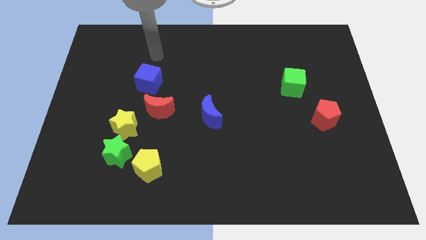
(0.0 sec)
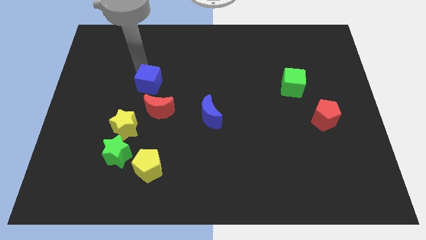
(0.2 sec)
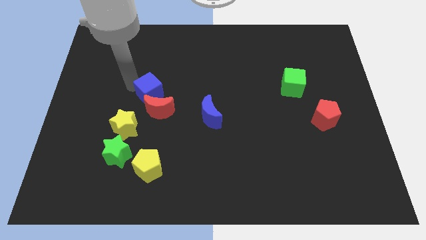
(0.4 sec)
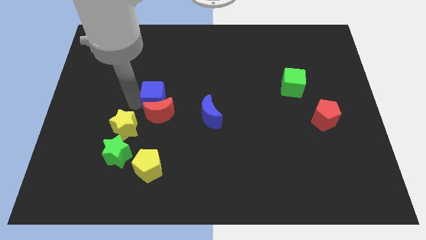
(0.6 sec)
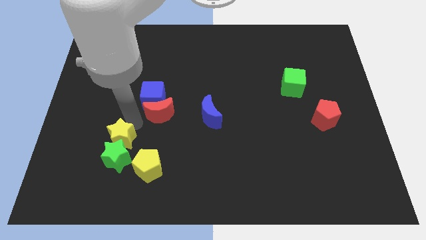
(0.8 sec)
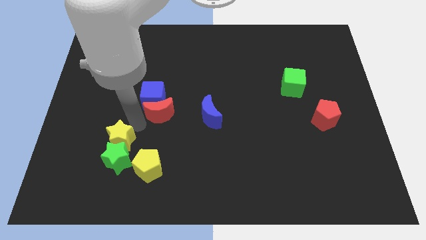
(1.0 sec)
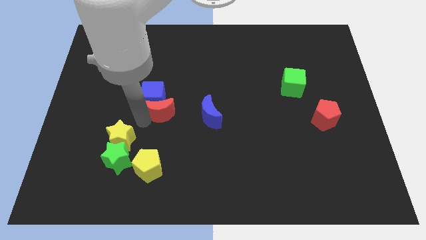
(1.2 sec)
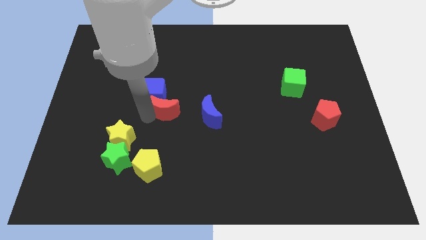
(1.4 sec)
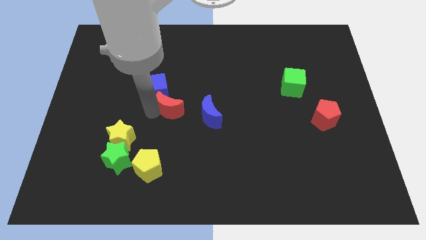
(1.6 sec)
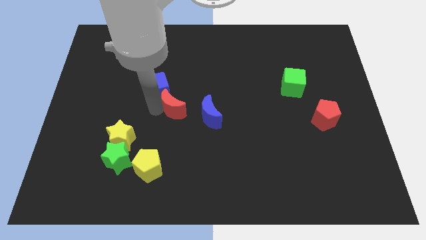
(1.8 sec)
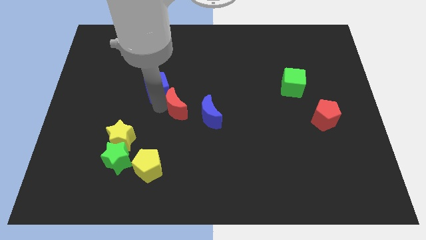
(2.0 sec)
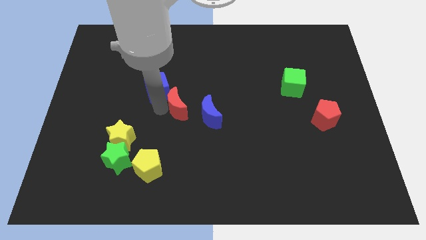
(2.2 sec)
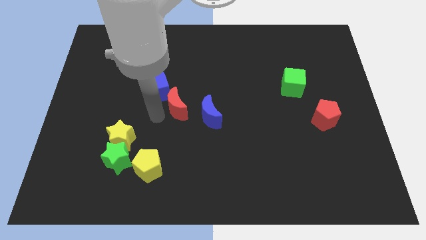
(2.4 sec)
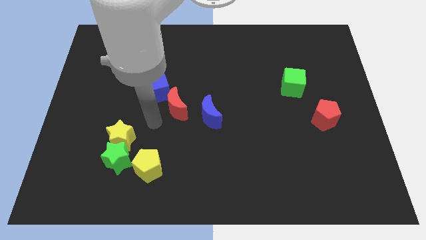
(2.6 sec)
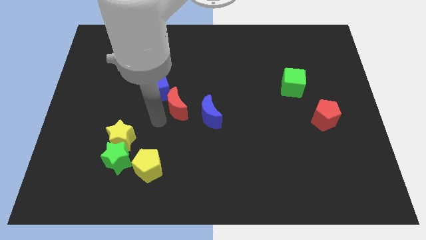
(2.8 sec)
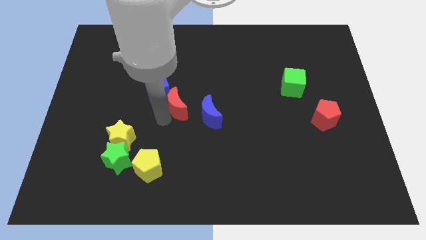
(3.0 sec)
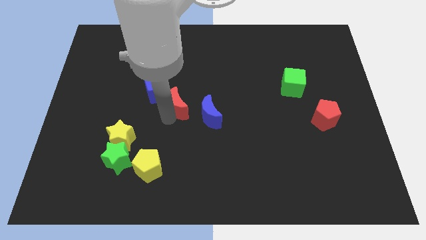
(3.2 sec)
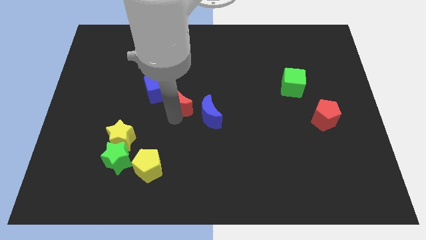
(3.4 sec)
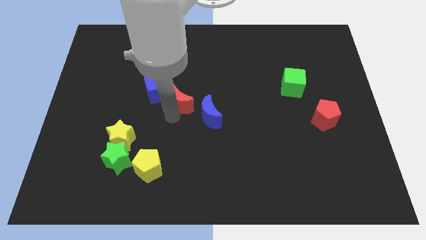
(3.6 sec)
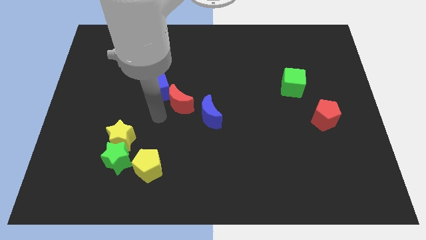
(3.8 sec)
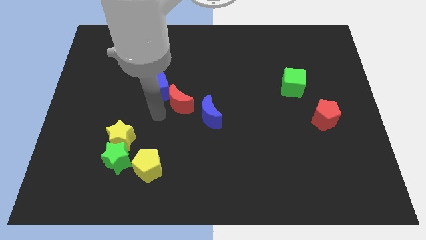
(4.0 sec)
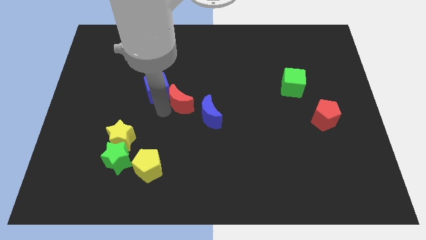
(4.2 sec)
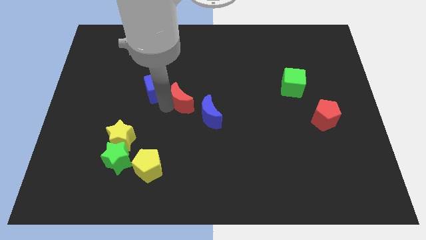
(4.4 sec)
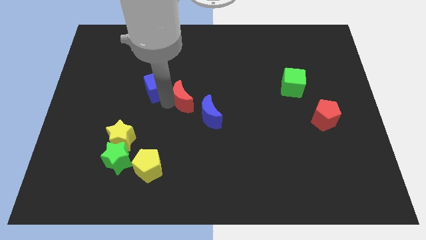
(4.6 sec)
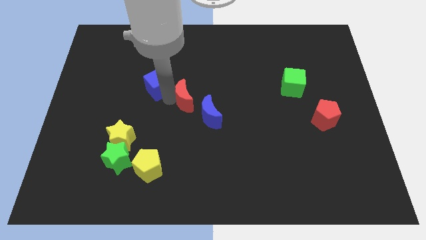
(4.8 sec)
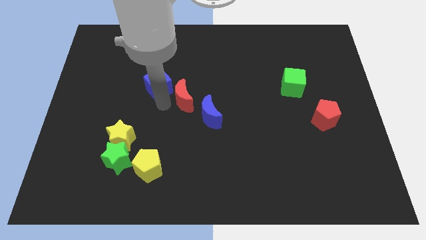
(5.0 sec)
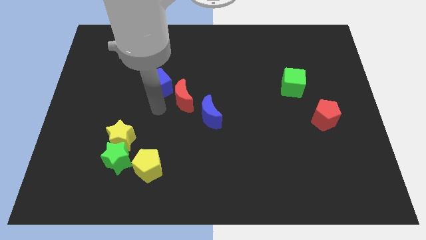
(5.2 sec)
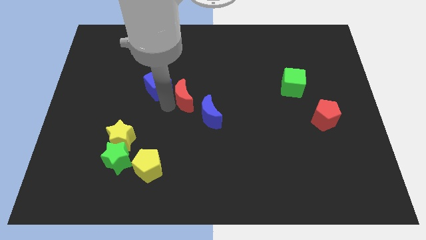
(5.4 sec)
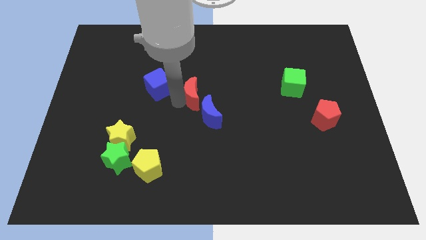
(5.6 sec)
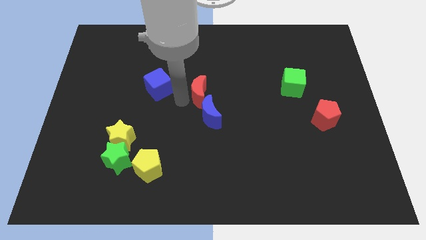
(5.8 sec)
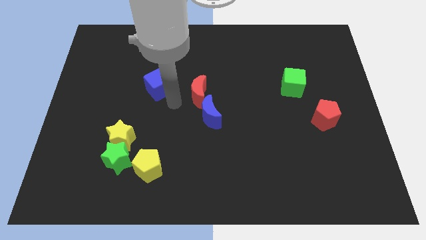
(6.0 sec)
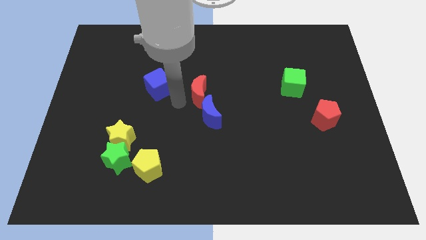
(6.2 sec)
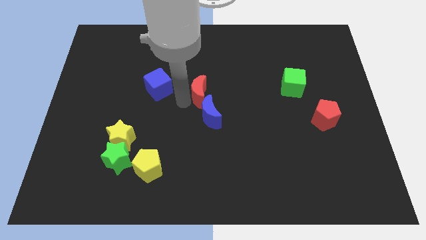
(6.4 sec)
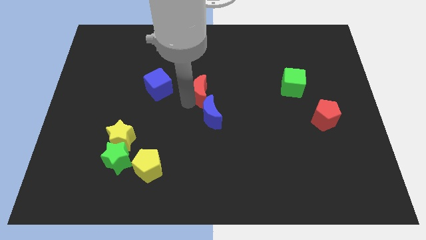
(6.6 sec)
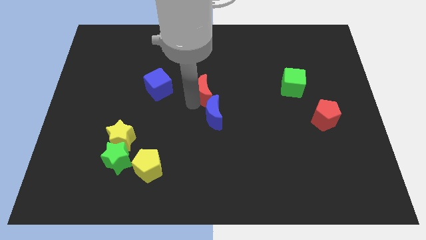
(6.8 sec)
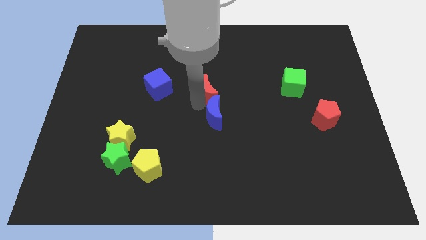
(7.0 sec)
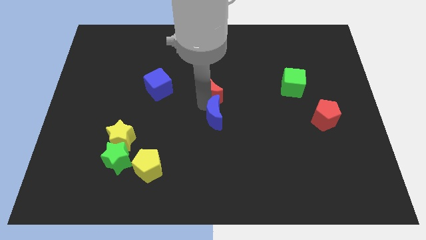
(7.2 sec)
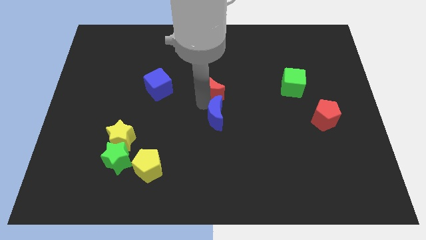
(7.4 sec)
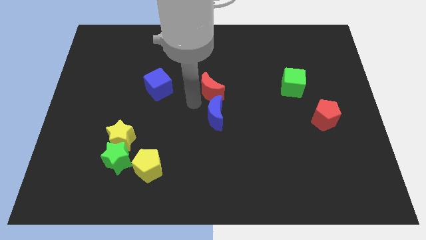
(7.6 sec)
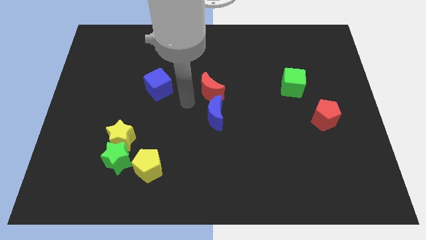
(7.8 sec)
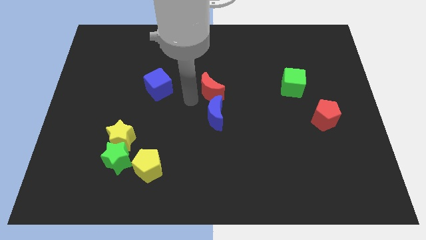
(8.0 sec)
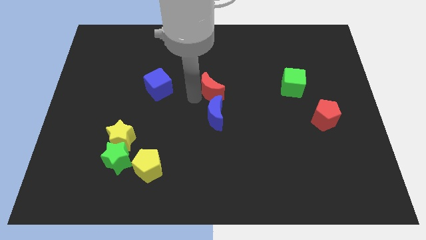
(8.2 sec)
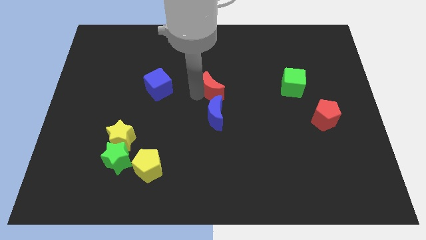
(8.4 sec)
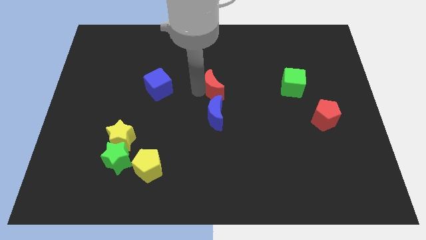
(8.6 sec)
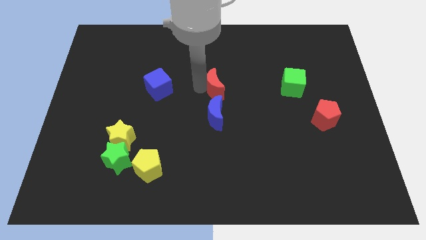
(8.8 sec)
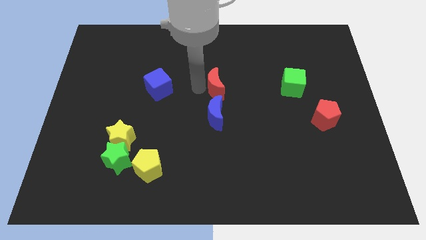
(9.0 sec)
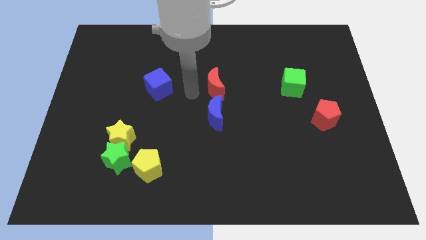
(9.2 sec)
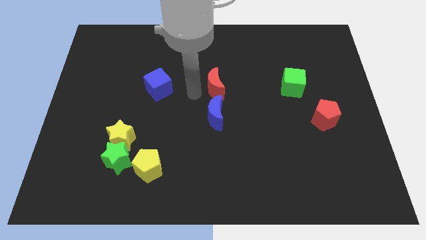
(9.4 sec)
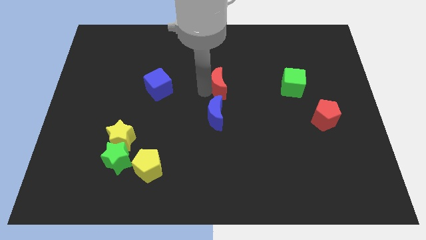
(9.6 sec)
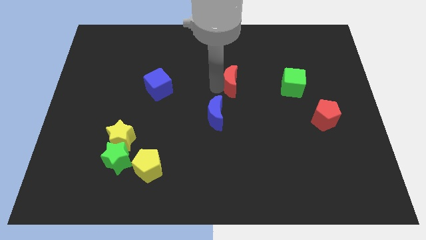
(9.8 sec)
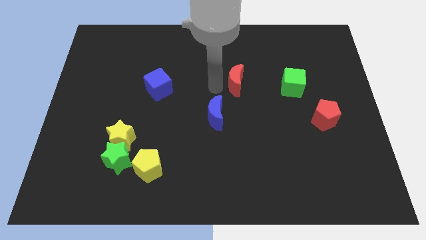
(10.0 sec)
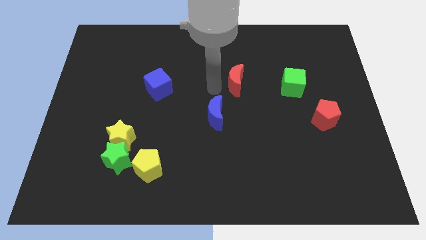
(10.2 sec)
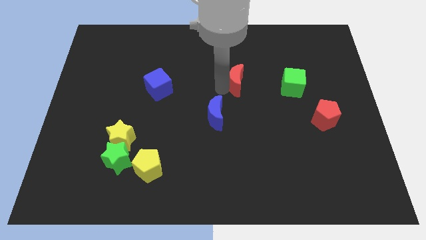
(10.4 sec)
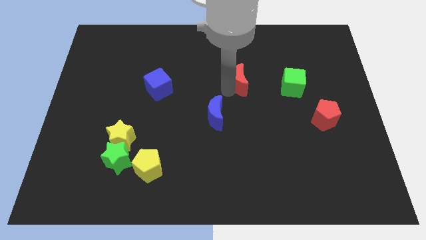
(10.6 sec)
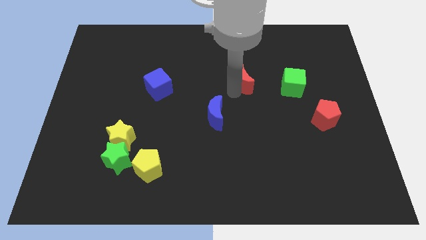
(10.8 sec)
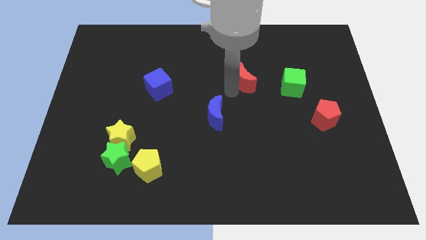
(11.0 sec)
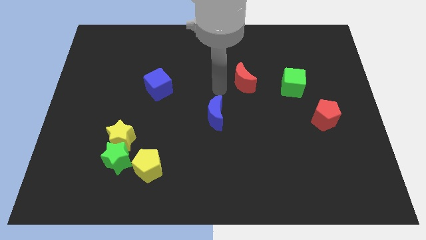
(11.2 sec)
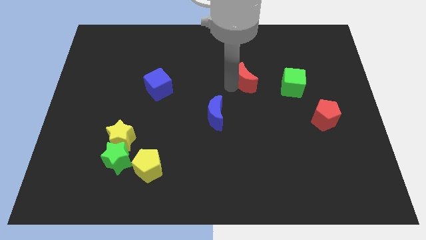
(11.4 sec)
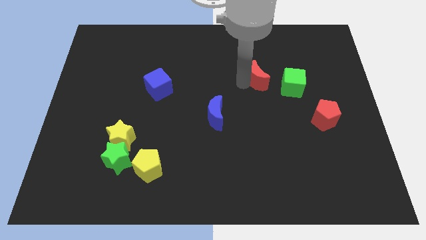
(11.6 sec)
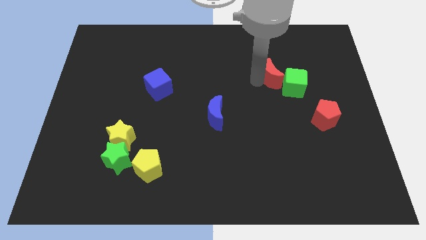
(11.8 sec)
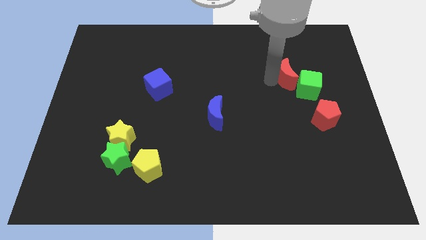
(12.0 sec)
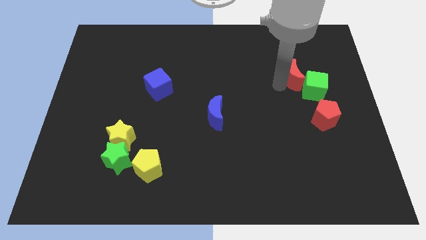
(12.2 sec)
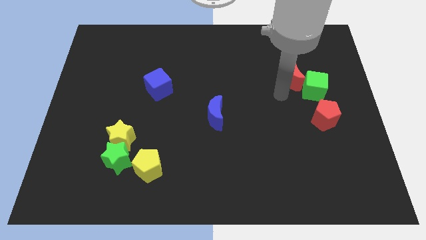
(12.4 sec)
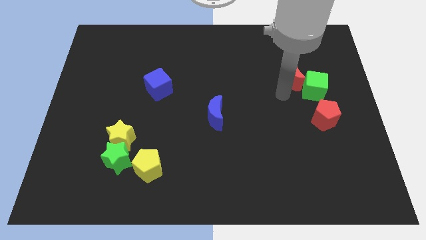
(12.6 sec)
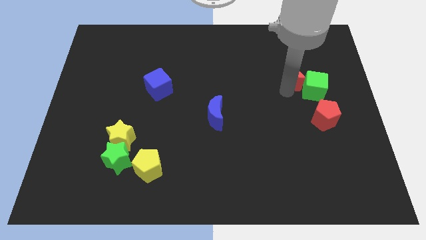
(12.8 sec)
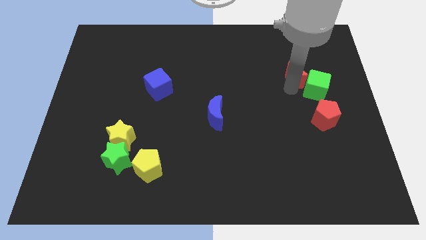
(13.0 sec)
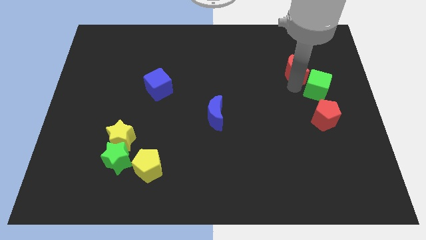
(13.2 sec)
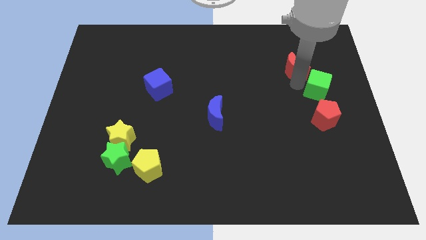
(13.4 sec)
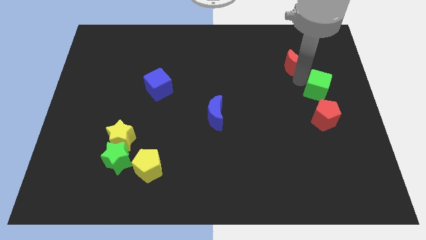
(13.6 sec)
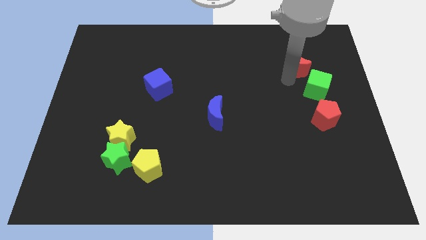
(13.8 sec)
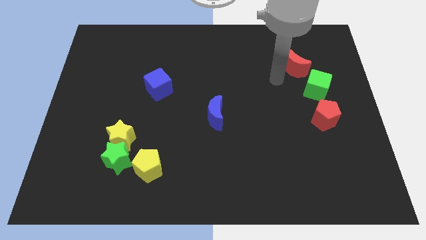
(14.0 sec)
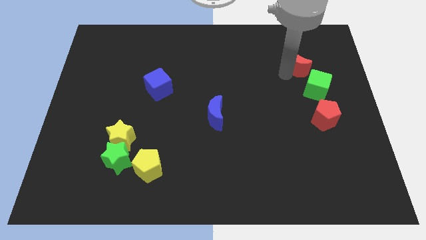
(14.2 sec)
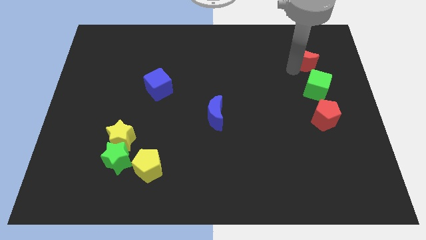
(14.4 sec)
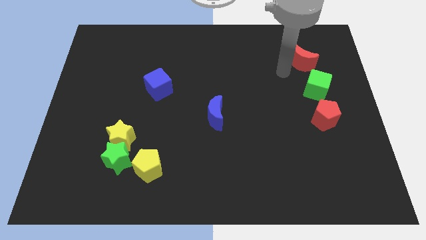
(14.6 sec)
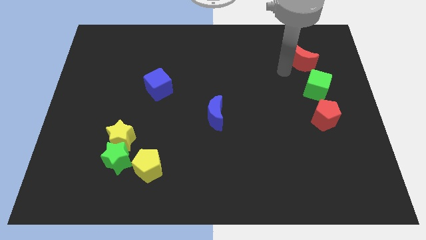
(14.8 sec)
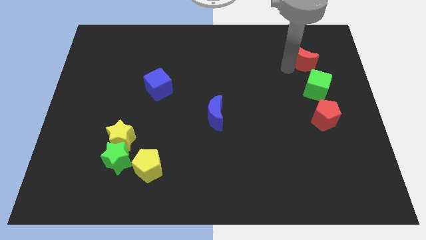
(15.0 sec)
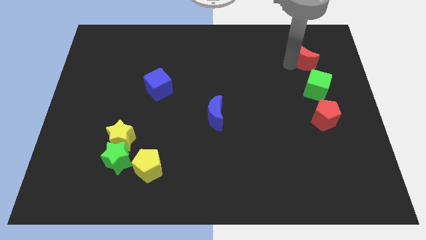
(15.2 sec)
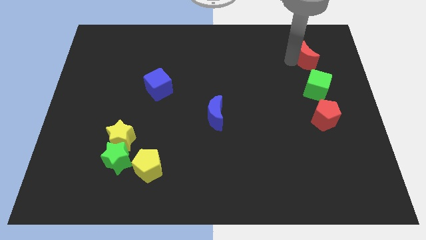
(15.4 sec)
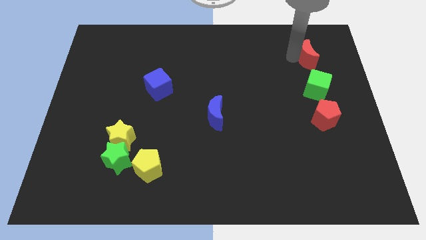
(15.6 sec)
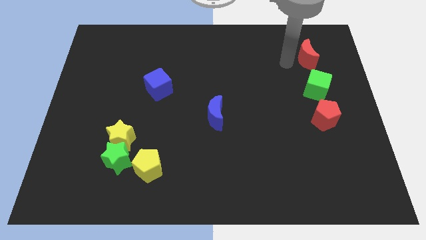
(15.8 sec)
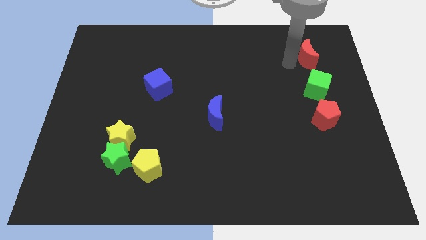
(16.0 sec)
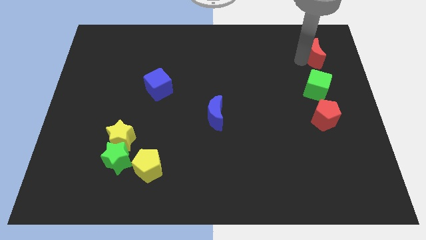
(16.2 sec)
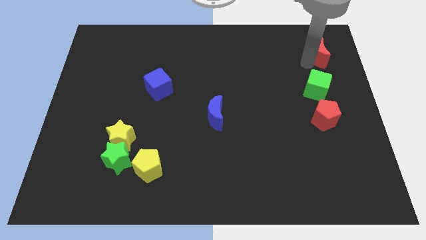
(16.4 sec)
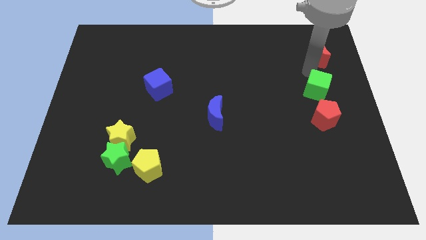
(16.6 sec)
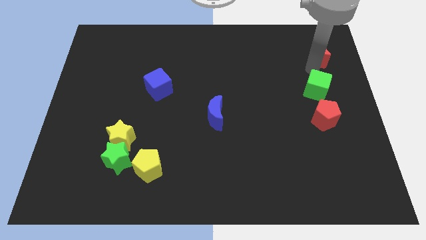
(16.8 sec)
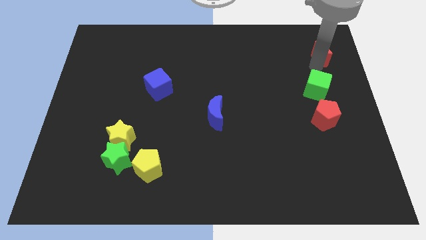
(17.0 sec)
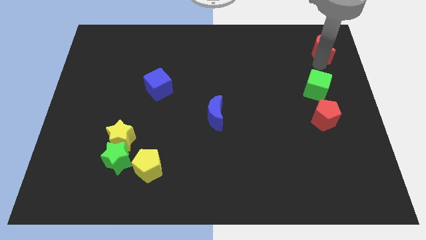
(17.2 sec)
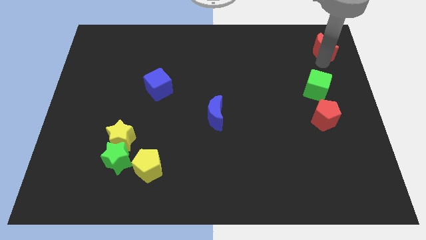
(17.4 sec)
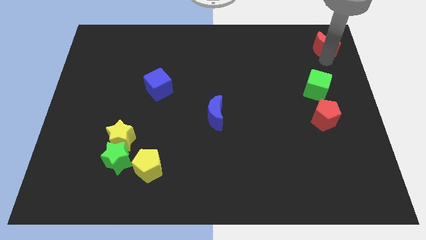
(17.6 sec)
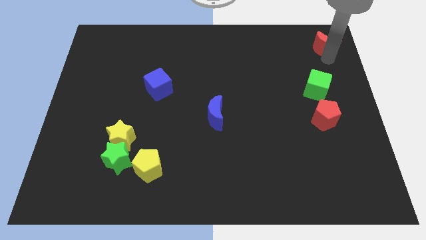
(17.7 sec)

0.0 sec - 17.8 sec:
push the red moon to the top right corner
